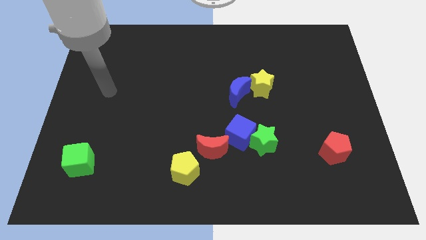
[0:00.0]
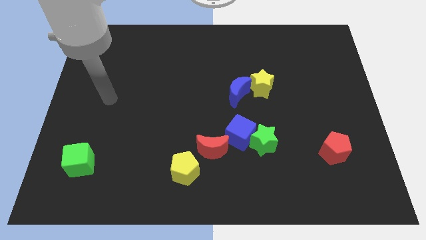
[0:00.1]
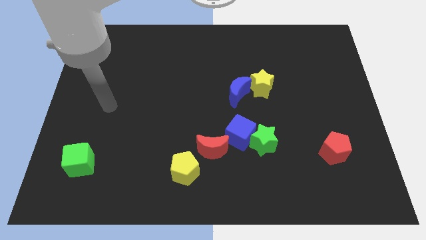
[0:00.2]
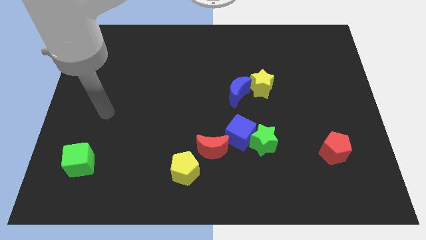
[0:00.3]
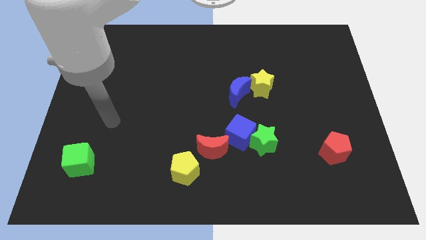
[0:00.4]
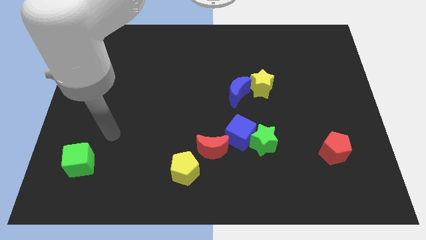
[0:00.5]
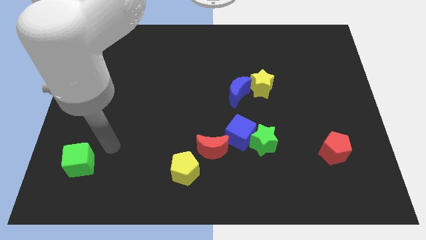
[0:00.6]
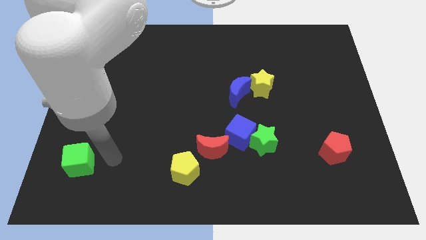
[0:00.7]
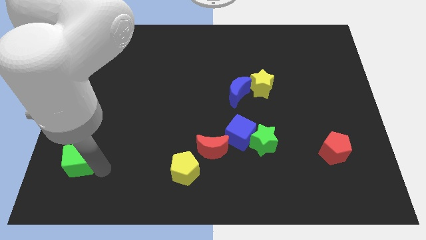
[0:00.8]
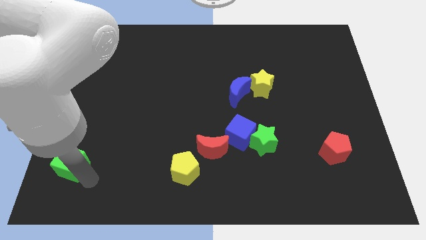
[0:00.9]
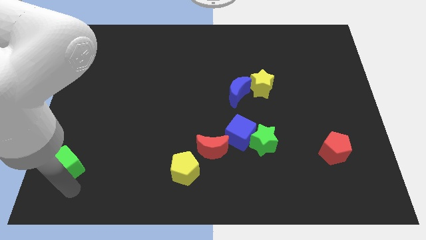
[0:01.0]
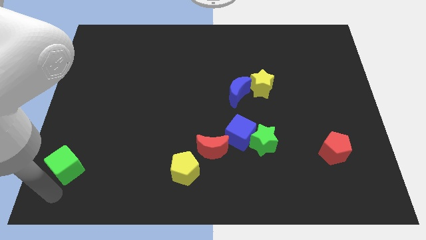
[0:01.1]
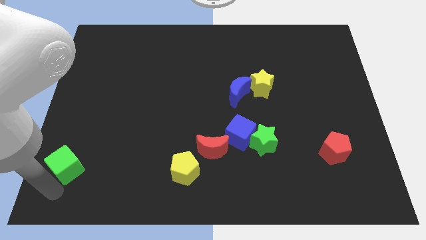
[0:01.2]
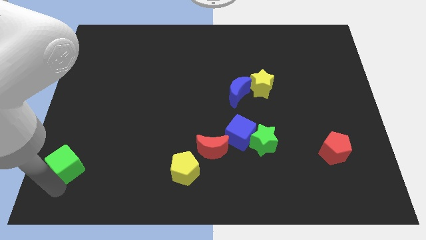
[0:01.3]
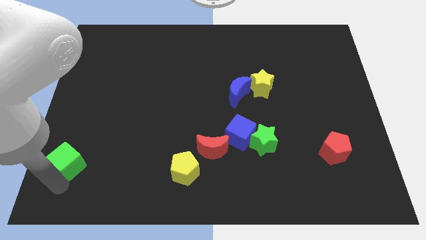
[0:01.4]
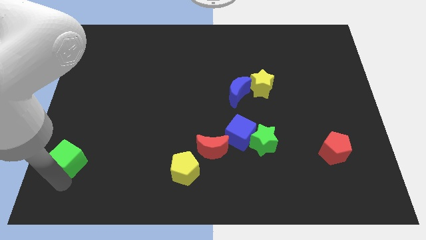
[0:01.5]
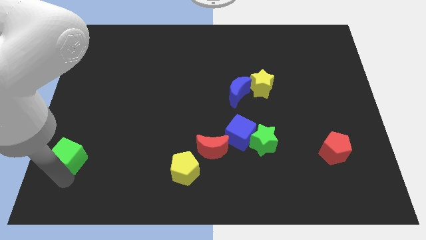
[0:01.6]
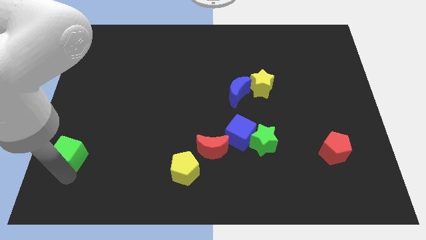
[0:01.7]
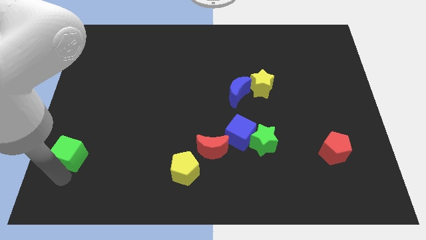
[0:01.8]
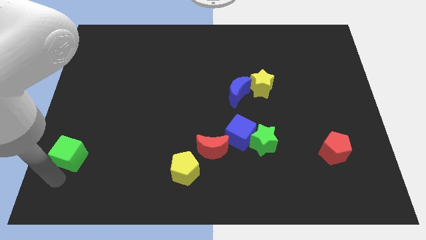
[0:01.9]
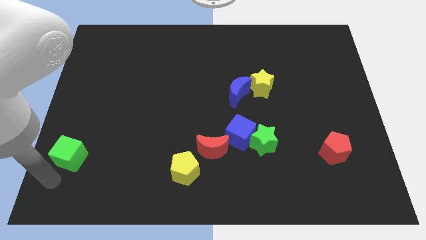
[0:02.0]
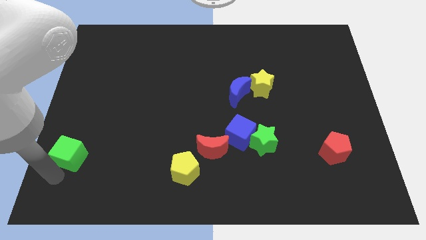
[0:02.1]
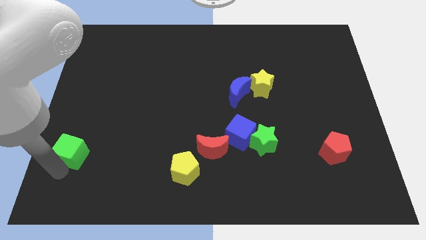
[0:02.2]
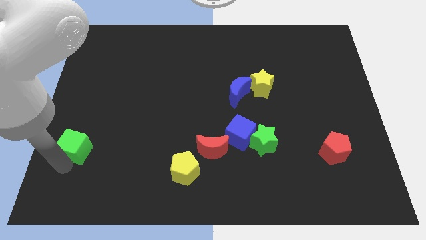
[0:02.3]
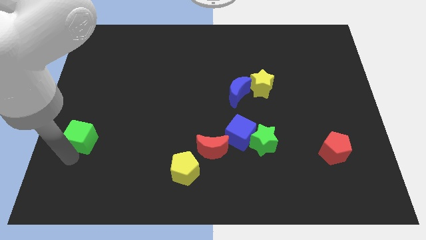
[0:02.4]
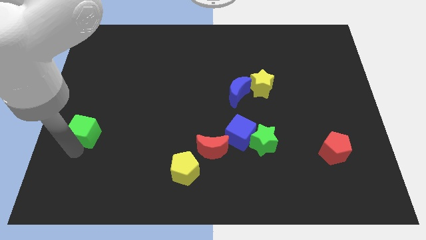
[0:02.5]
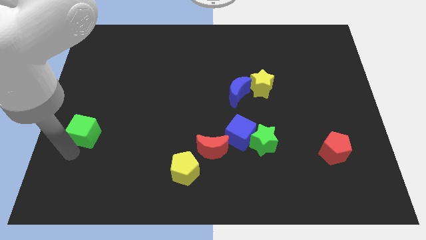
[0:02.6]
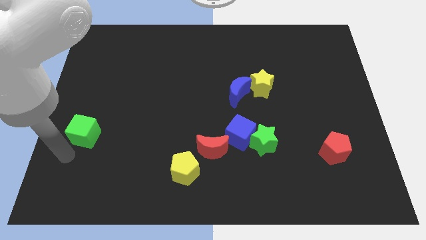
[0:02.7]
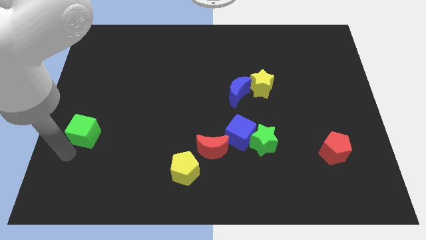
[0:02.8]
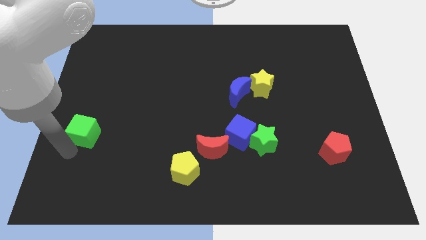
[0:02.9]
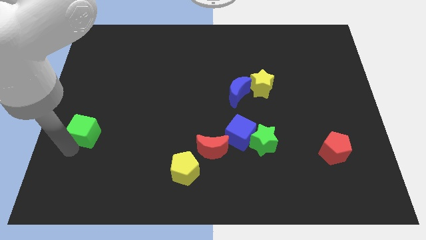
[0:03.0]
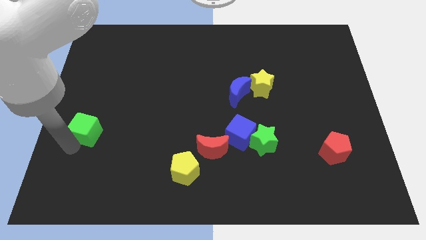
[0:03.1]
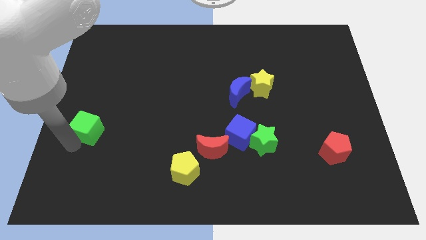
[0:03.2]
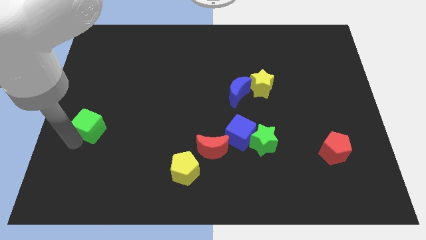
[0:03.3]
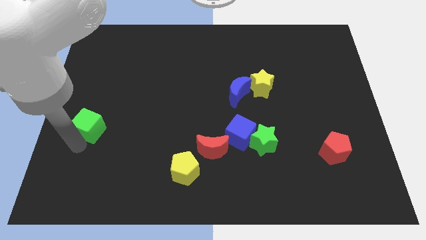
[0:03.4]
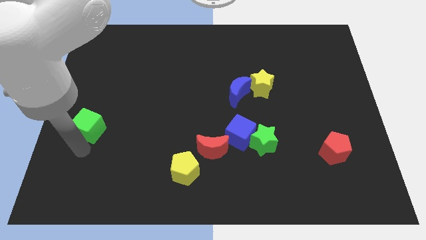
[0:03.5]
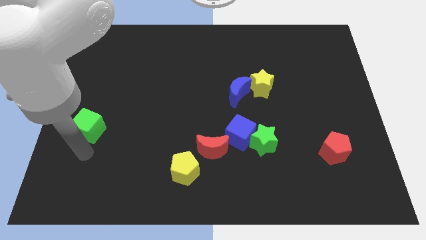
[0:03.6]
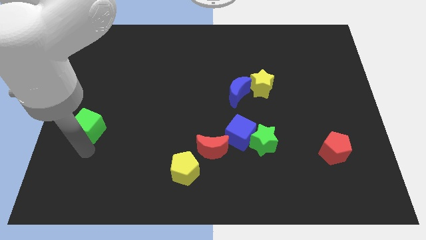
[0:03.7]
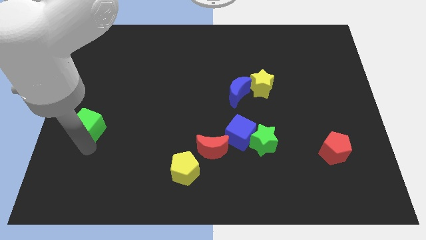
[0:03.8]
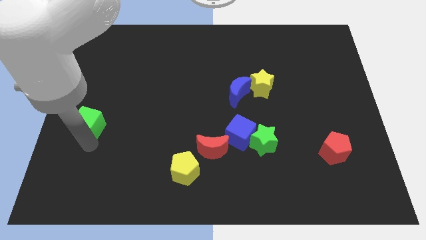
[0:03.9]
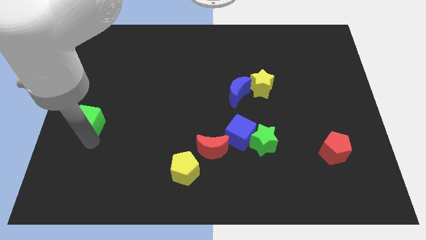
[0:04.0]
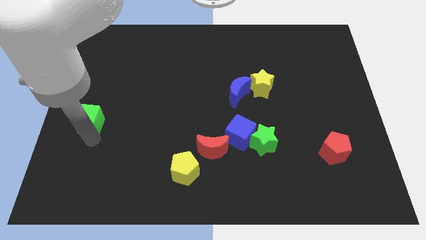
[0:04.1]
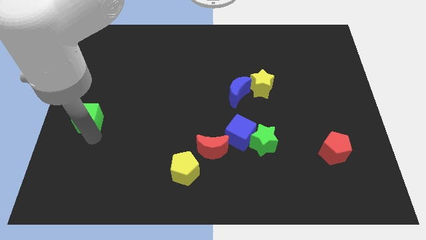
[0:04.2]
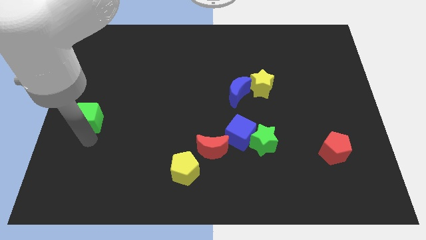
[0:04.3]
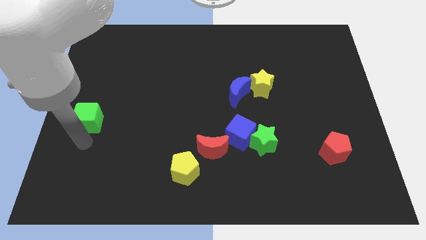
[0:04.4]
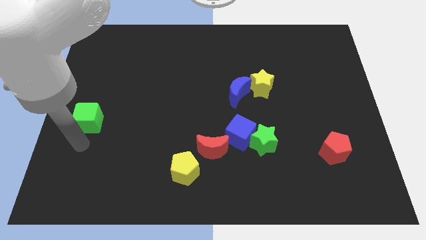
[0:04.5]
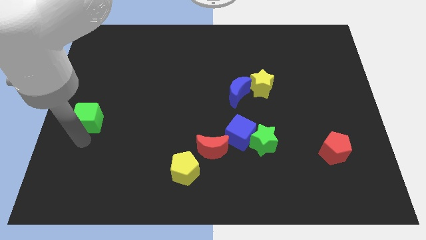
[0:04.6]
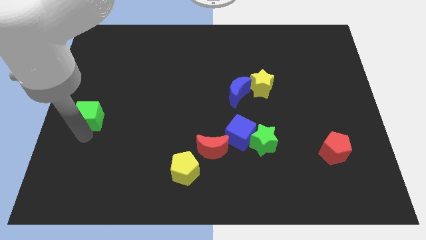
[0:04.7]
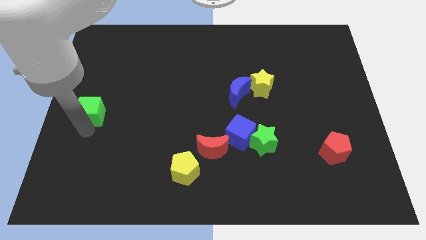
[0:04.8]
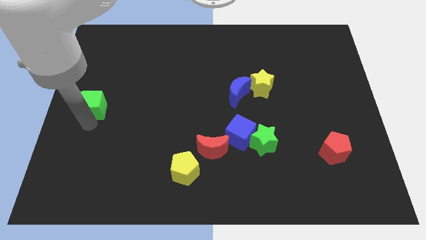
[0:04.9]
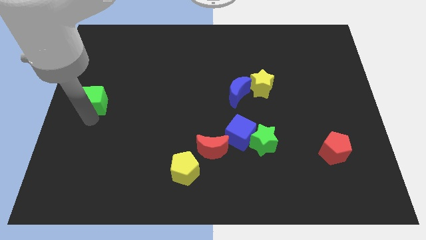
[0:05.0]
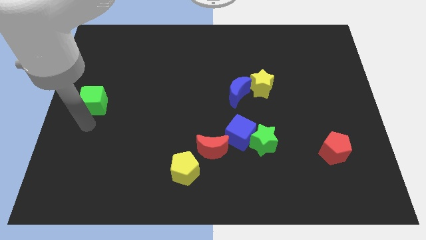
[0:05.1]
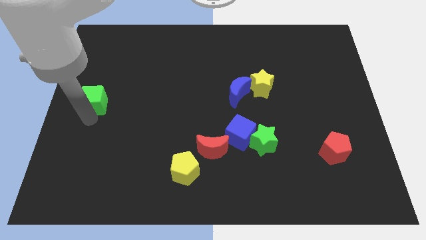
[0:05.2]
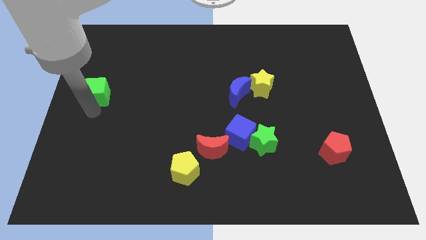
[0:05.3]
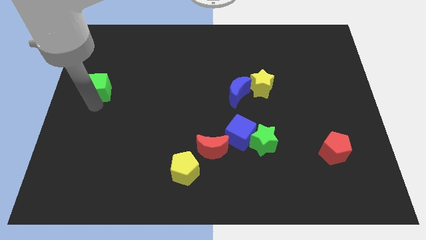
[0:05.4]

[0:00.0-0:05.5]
slide the green cube upwards

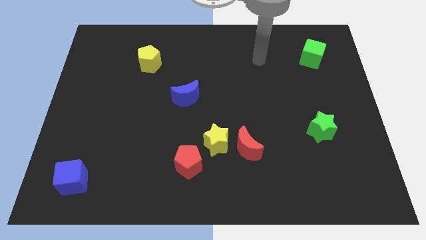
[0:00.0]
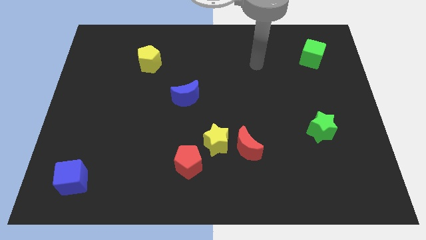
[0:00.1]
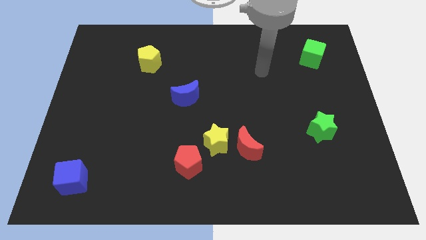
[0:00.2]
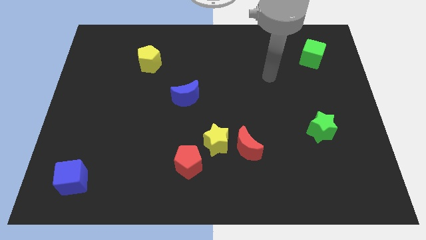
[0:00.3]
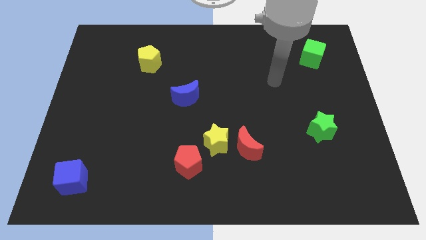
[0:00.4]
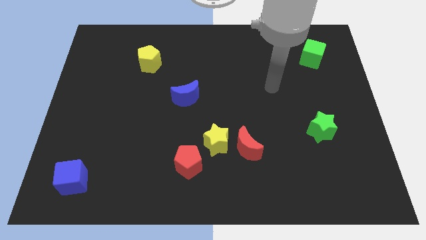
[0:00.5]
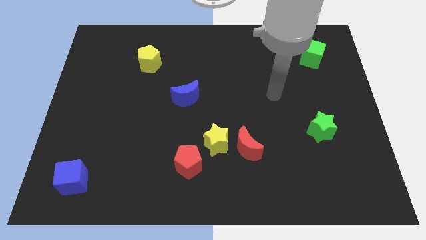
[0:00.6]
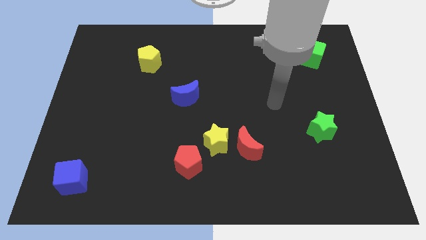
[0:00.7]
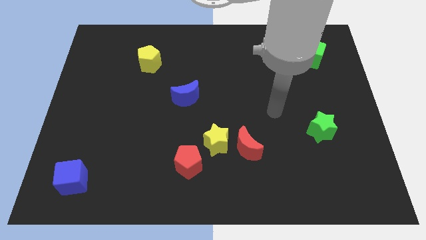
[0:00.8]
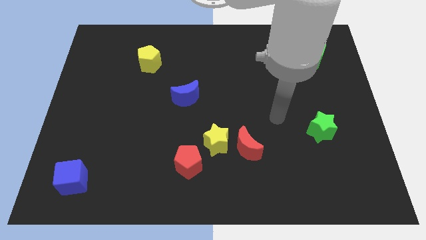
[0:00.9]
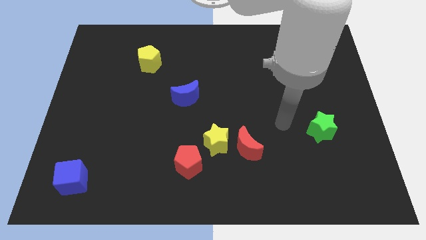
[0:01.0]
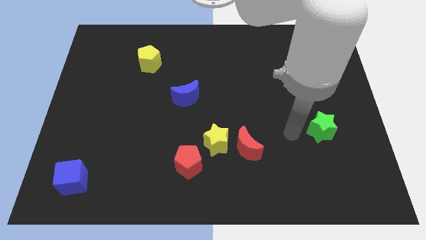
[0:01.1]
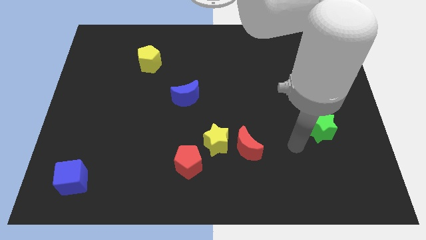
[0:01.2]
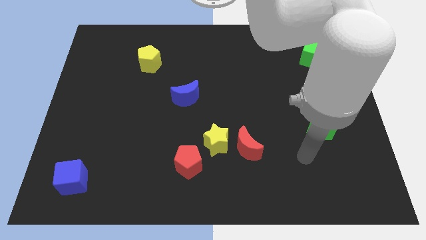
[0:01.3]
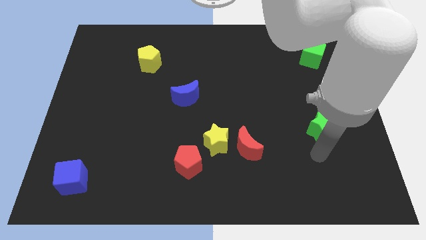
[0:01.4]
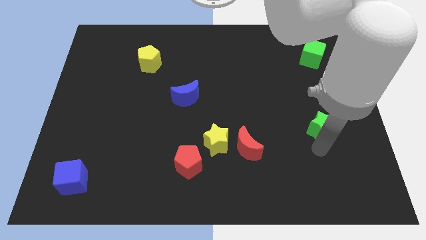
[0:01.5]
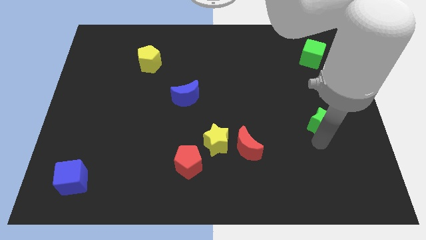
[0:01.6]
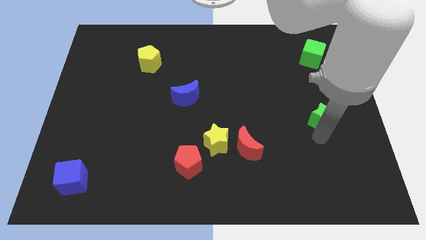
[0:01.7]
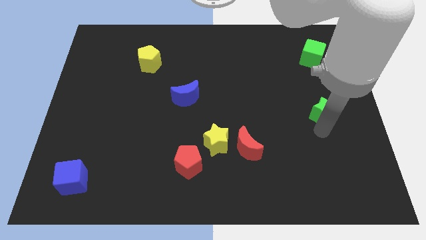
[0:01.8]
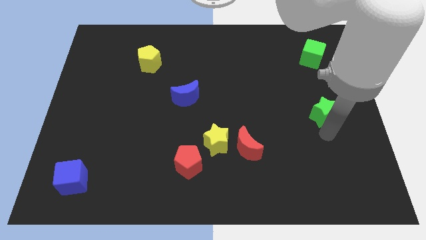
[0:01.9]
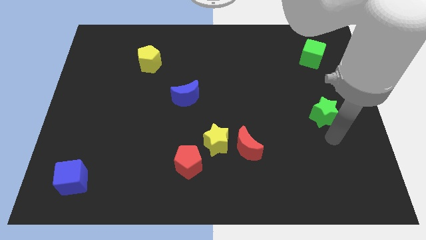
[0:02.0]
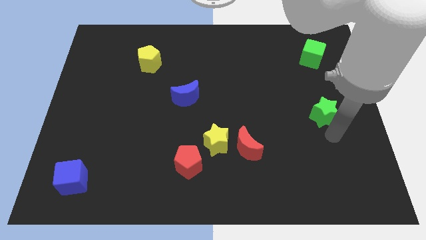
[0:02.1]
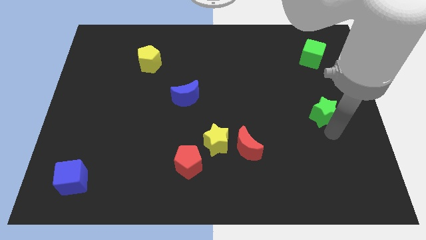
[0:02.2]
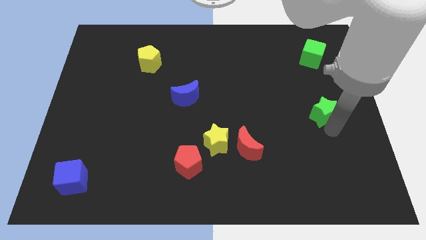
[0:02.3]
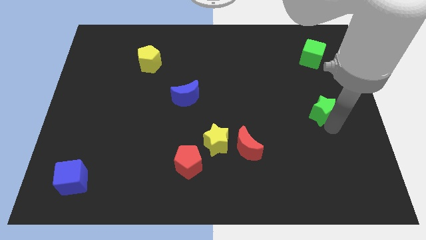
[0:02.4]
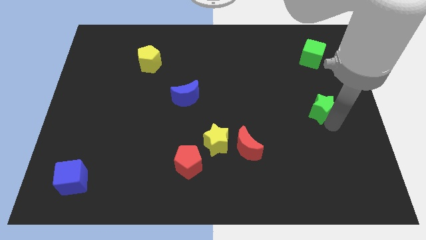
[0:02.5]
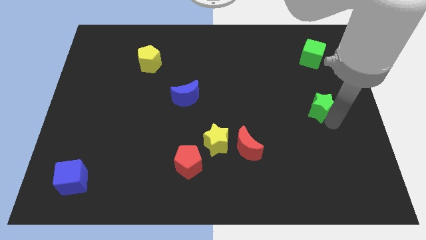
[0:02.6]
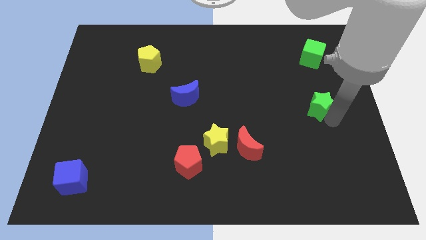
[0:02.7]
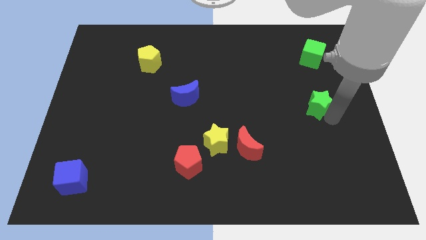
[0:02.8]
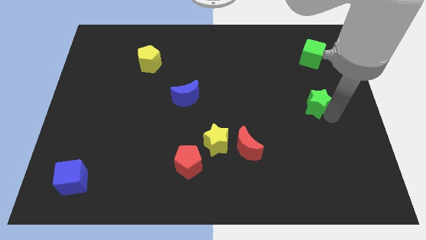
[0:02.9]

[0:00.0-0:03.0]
push the green star a bit up
